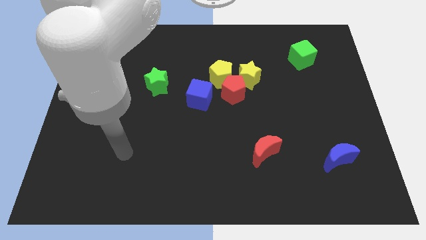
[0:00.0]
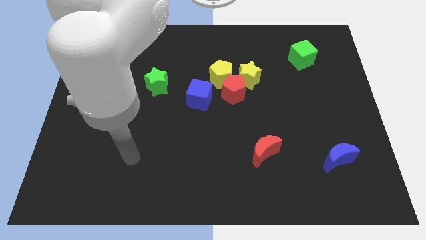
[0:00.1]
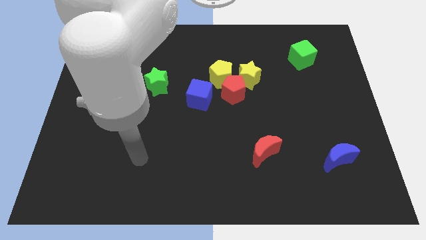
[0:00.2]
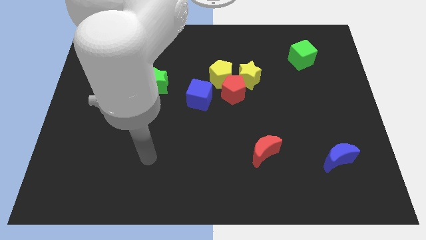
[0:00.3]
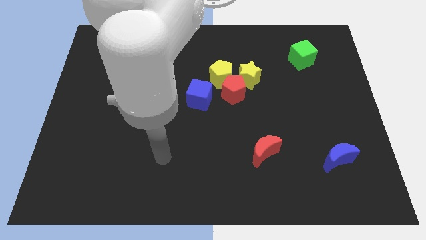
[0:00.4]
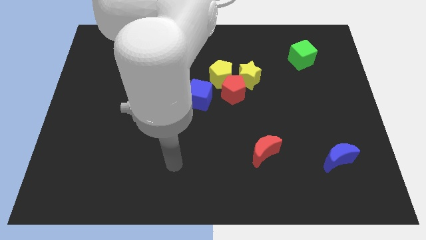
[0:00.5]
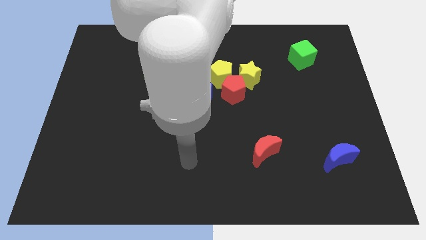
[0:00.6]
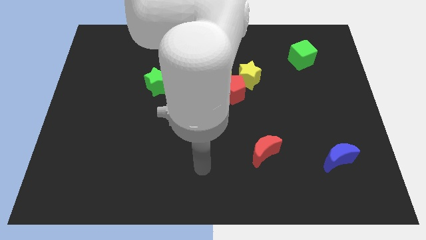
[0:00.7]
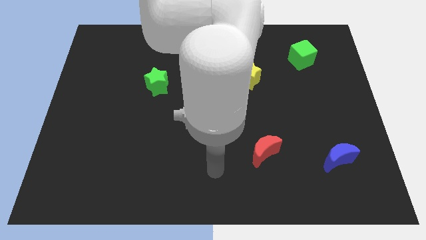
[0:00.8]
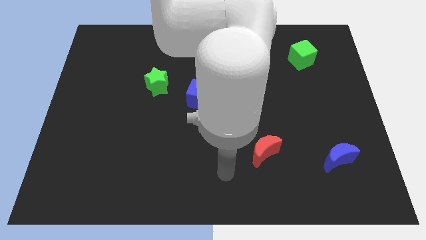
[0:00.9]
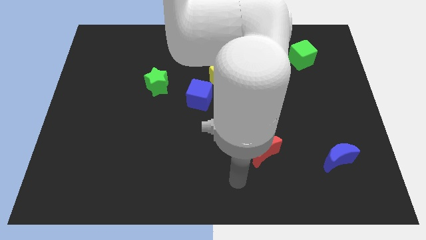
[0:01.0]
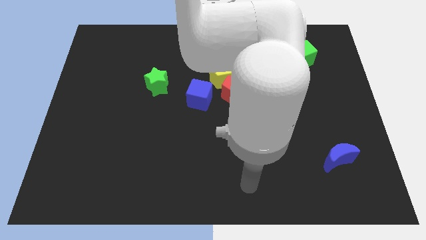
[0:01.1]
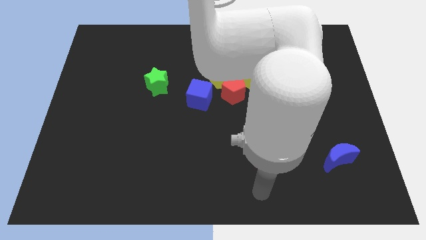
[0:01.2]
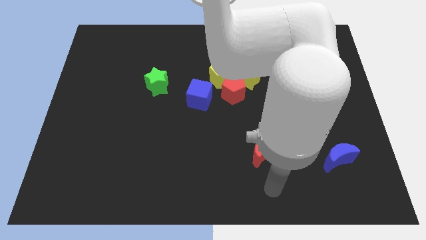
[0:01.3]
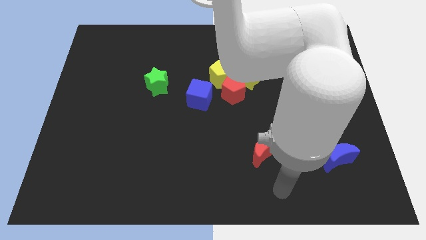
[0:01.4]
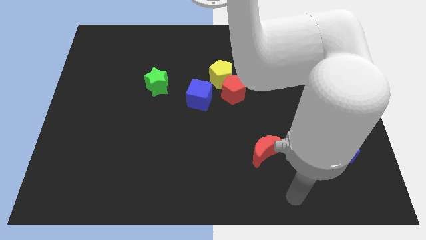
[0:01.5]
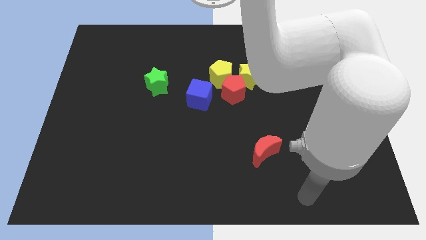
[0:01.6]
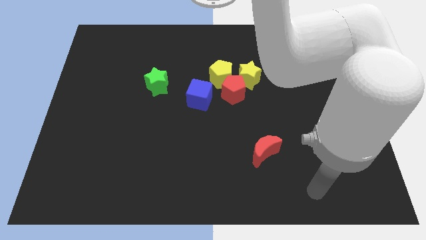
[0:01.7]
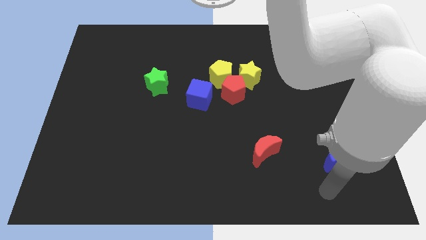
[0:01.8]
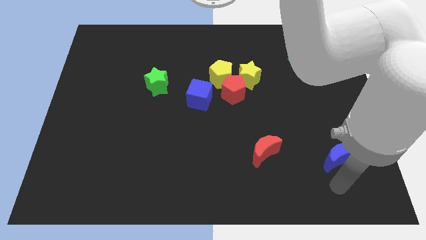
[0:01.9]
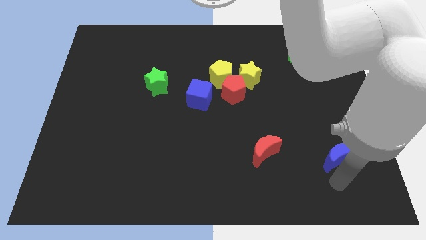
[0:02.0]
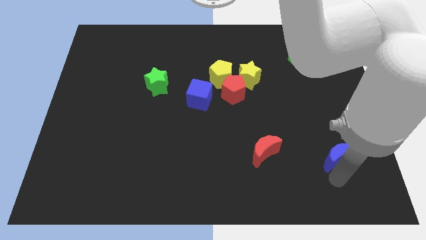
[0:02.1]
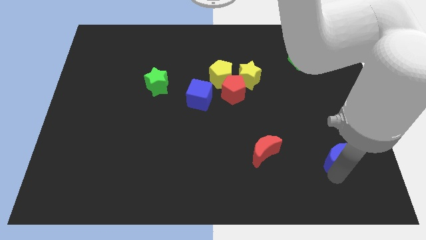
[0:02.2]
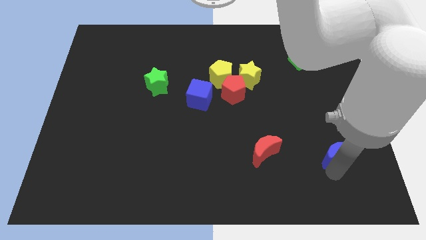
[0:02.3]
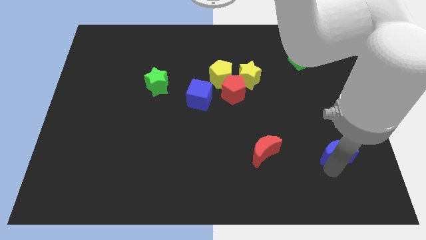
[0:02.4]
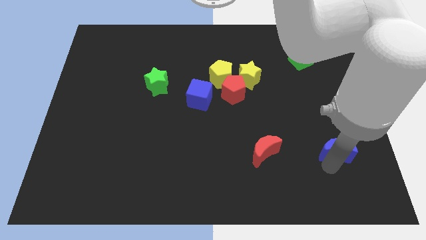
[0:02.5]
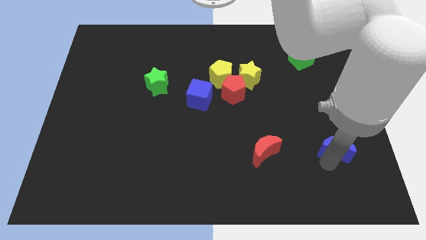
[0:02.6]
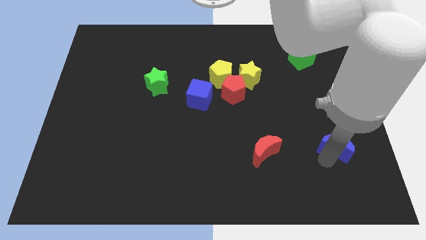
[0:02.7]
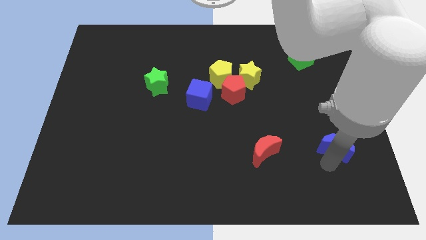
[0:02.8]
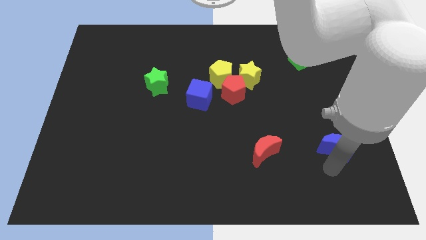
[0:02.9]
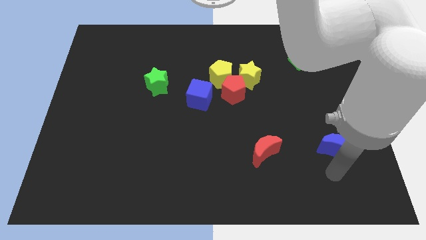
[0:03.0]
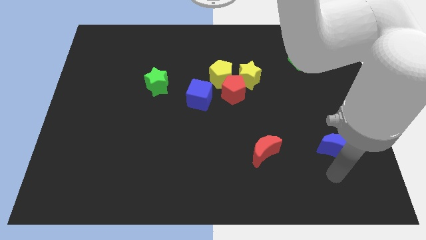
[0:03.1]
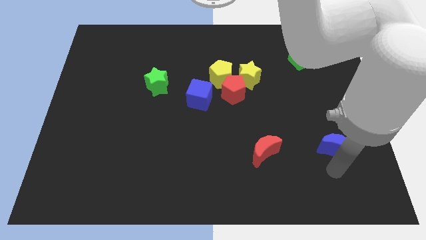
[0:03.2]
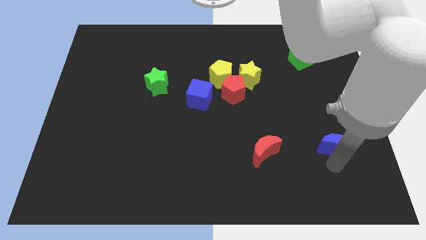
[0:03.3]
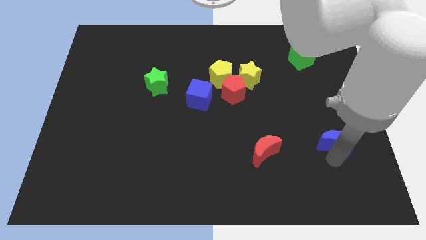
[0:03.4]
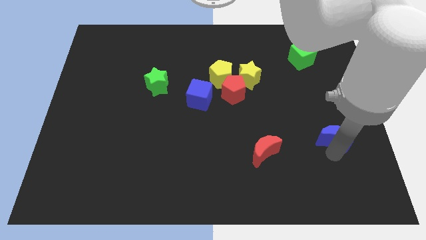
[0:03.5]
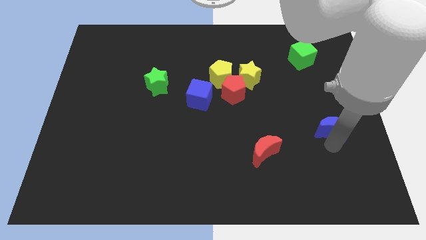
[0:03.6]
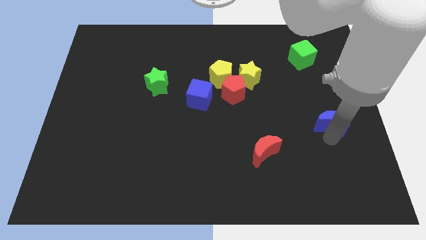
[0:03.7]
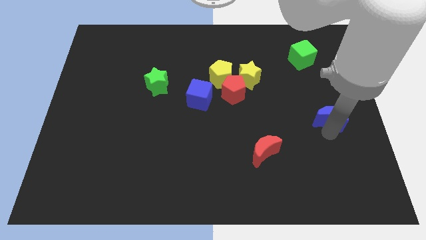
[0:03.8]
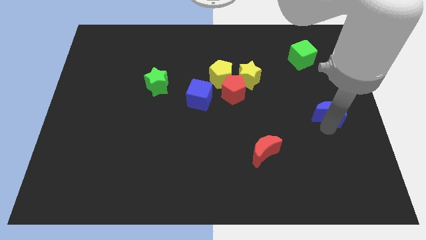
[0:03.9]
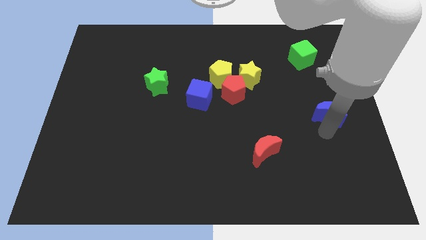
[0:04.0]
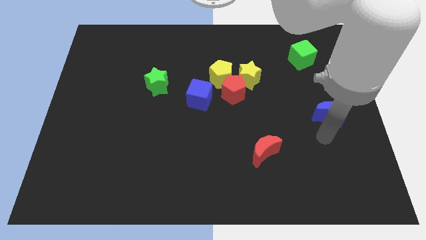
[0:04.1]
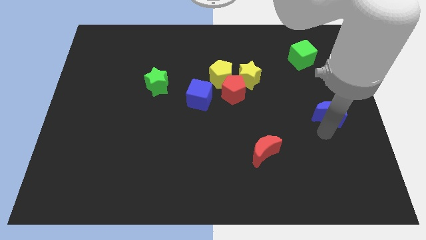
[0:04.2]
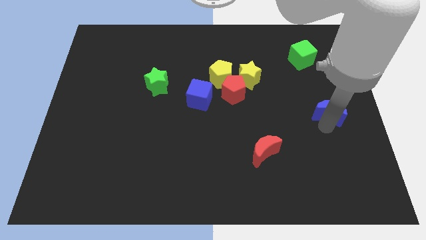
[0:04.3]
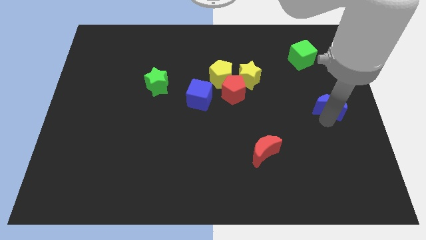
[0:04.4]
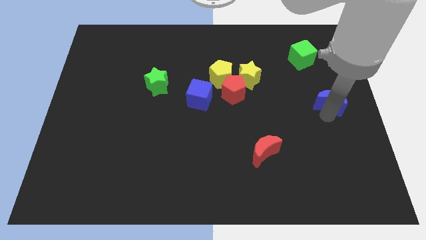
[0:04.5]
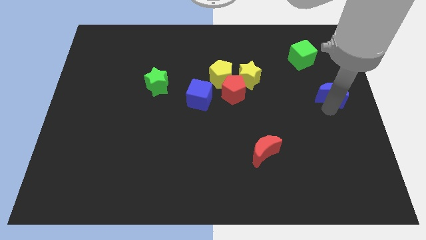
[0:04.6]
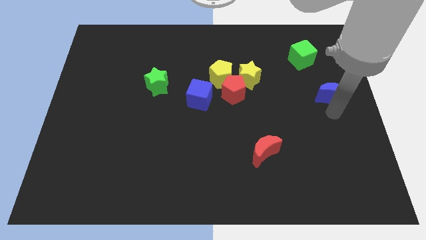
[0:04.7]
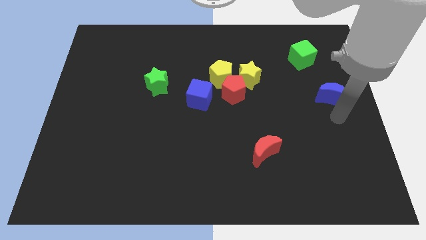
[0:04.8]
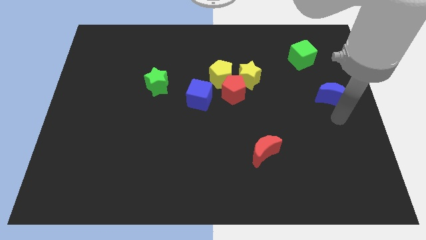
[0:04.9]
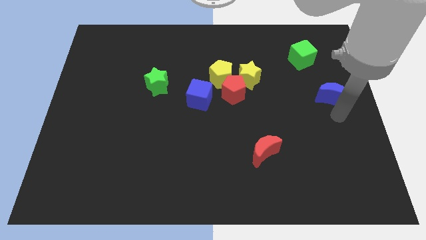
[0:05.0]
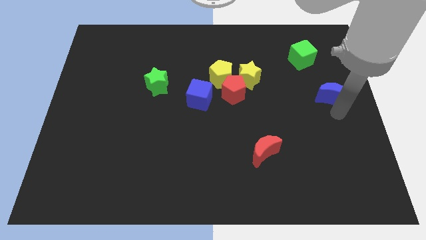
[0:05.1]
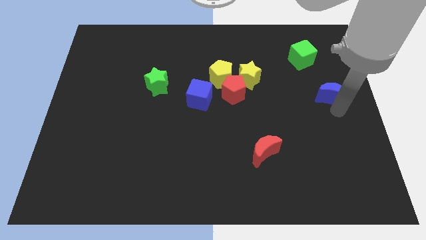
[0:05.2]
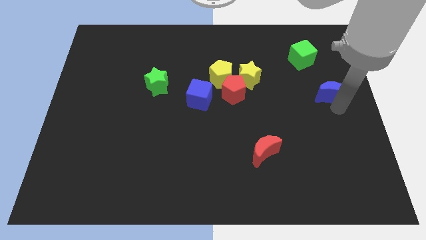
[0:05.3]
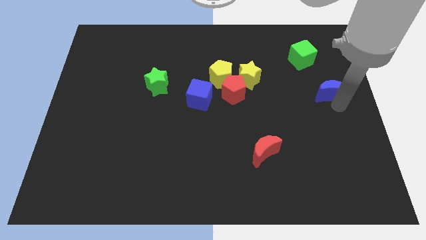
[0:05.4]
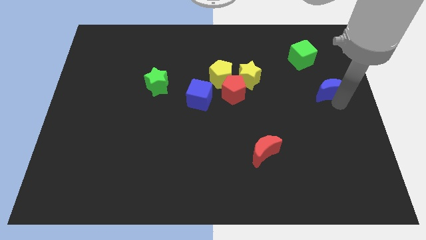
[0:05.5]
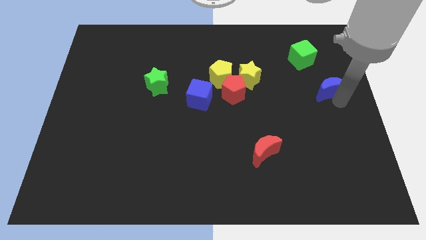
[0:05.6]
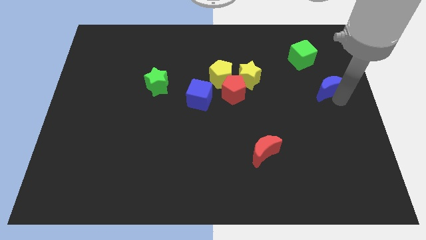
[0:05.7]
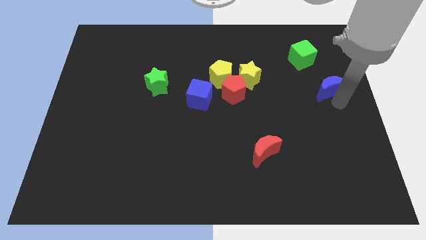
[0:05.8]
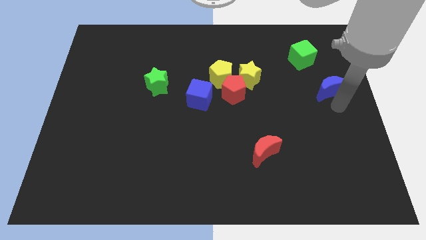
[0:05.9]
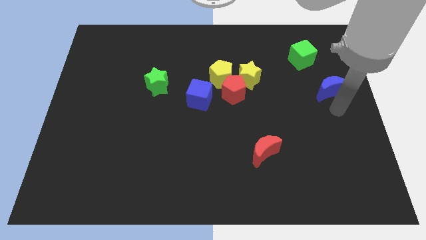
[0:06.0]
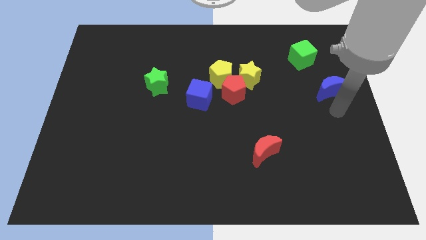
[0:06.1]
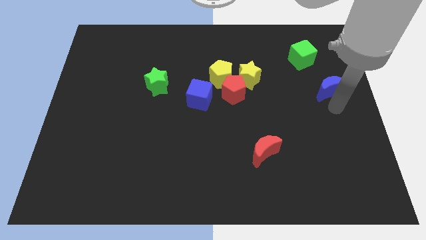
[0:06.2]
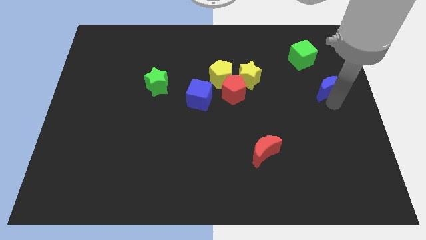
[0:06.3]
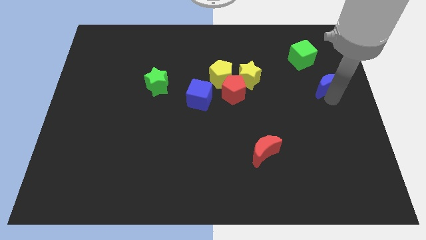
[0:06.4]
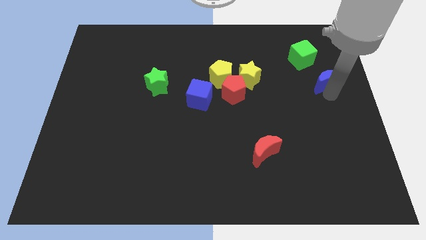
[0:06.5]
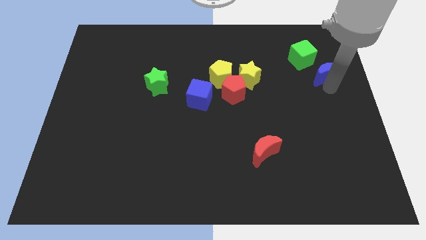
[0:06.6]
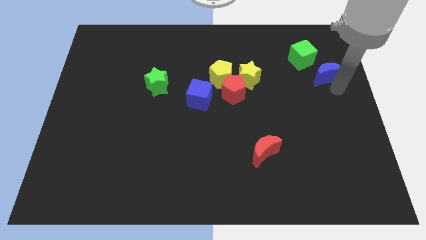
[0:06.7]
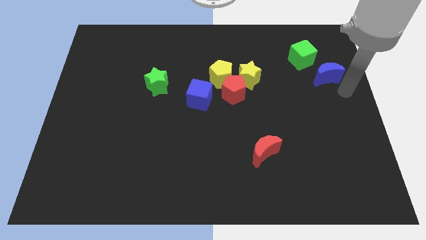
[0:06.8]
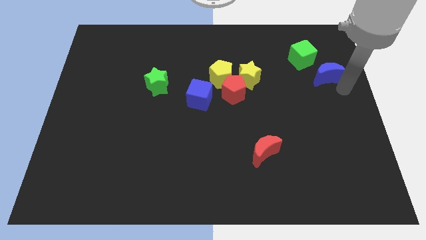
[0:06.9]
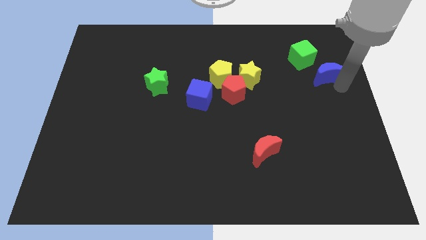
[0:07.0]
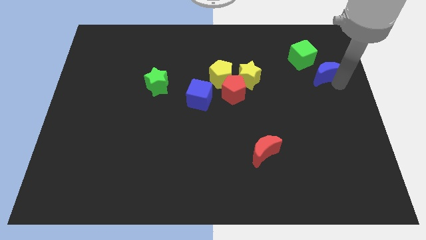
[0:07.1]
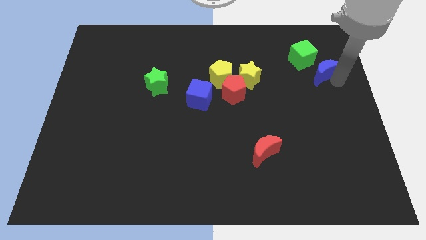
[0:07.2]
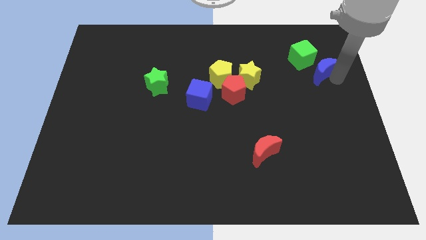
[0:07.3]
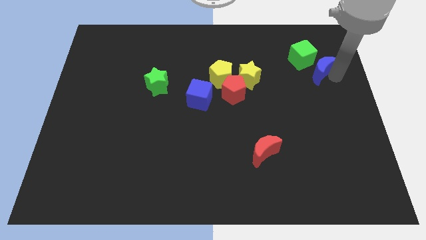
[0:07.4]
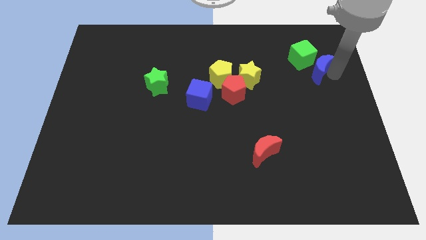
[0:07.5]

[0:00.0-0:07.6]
put the blue moon towards the green cube
